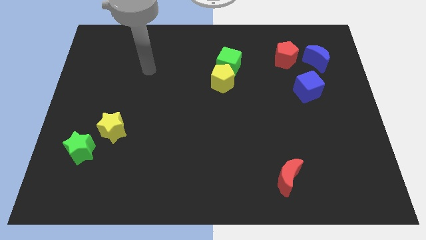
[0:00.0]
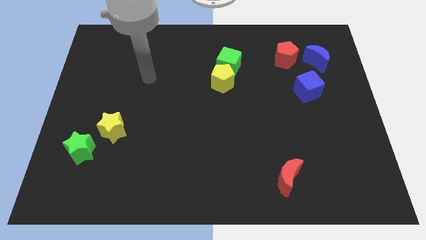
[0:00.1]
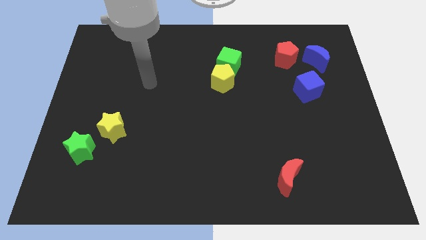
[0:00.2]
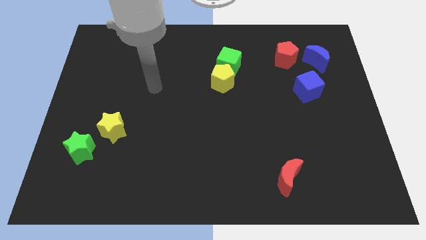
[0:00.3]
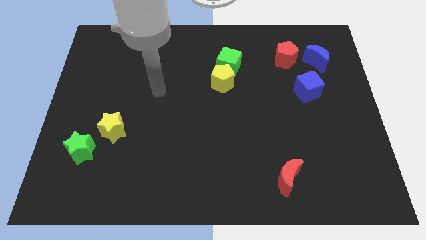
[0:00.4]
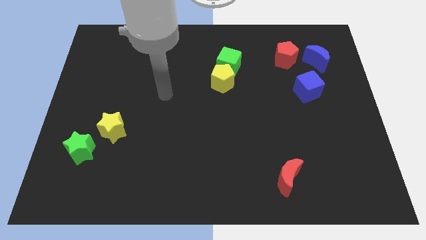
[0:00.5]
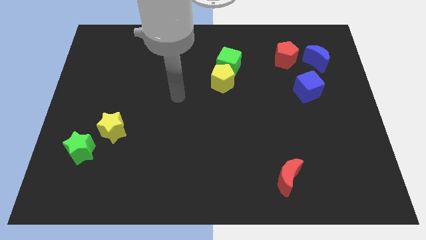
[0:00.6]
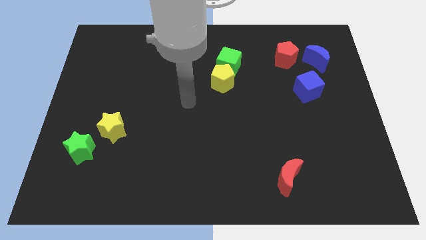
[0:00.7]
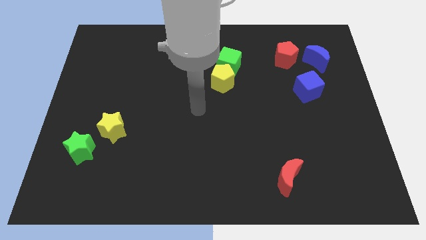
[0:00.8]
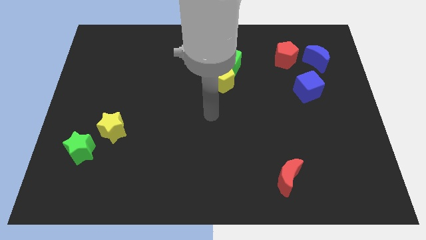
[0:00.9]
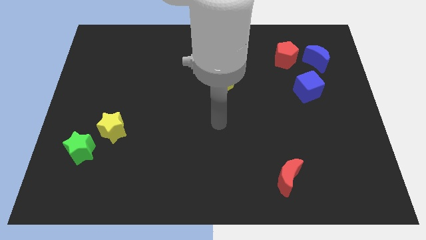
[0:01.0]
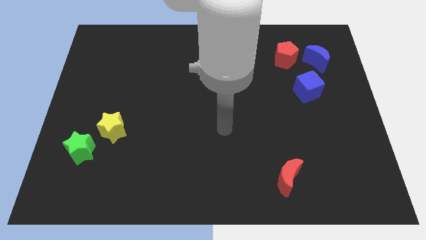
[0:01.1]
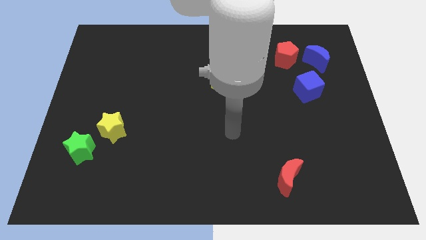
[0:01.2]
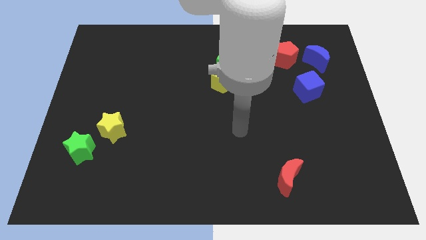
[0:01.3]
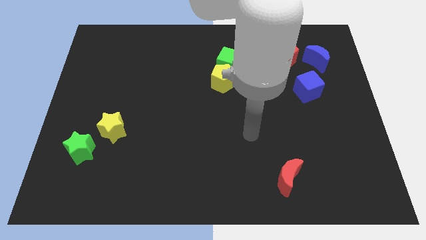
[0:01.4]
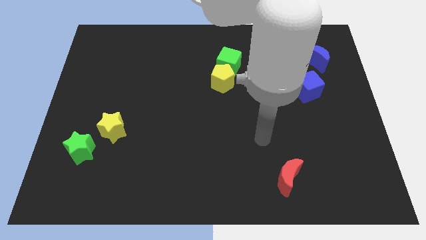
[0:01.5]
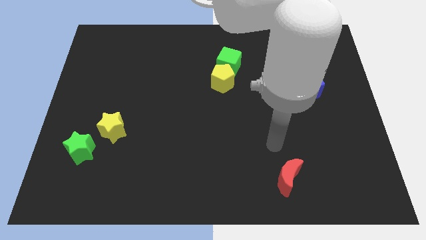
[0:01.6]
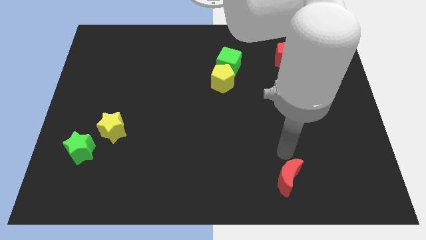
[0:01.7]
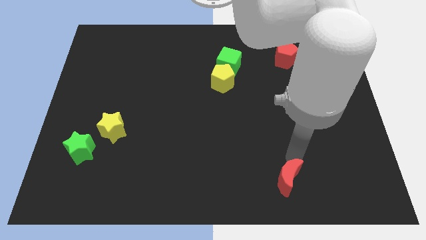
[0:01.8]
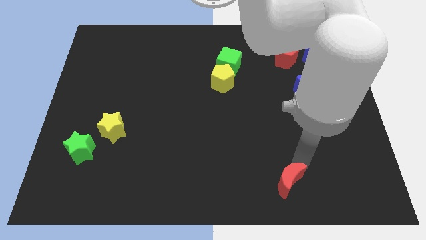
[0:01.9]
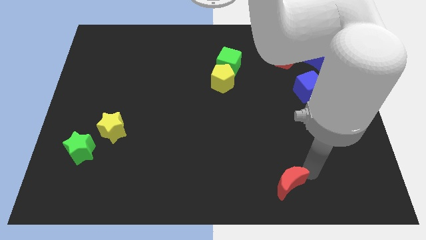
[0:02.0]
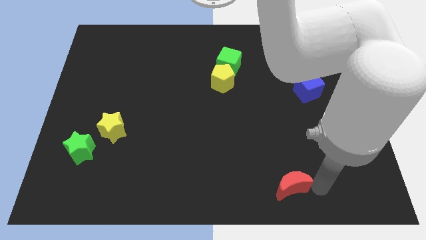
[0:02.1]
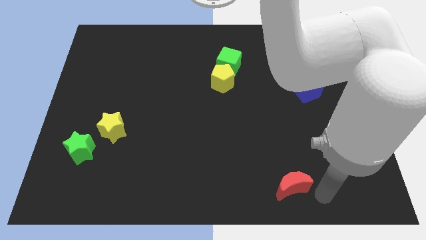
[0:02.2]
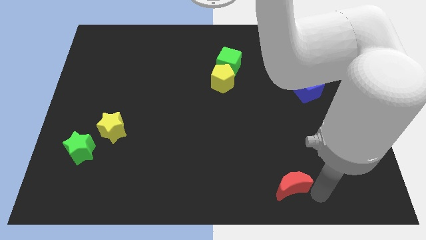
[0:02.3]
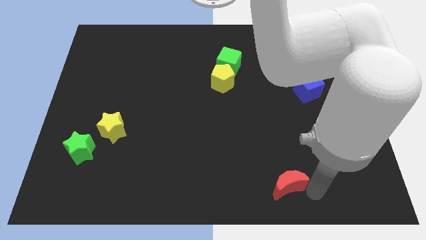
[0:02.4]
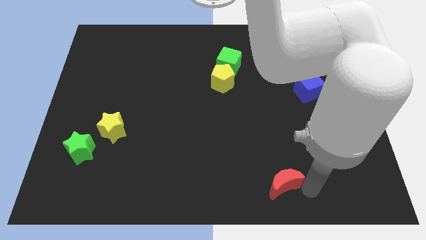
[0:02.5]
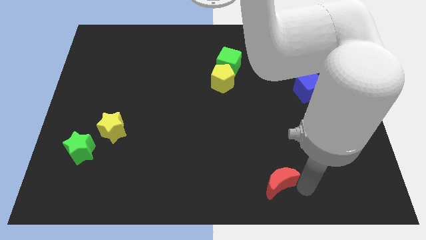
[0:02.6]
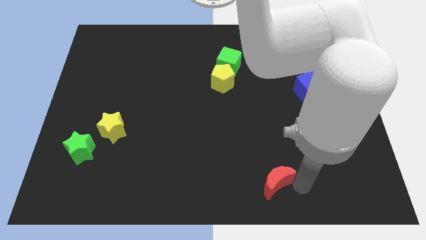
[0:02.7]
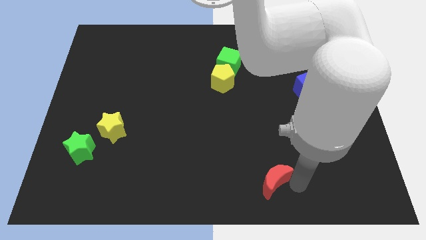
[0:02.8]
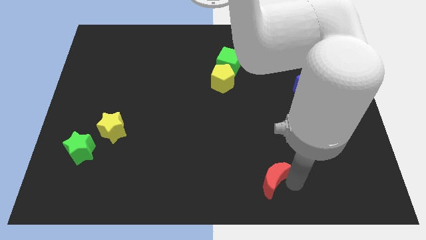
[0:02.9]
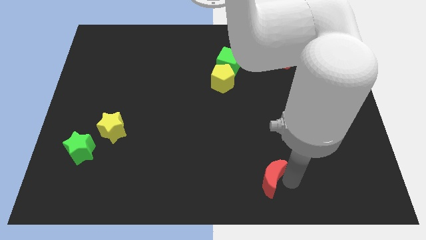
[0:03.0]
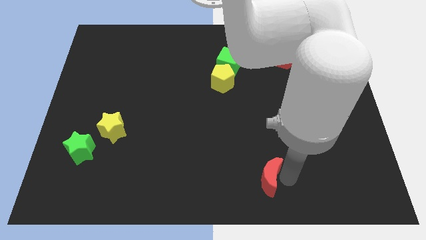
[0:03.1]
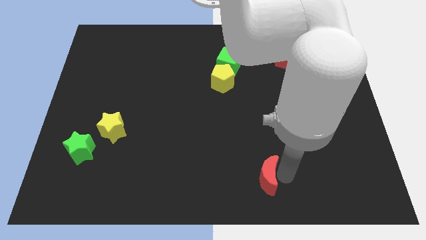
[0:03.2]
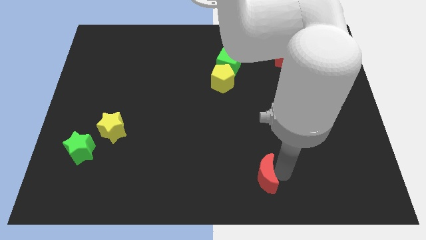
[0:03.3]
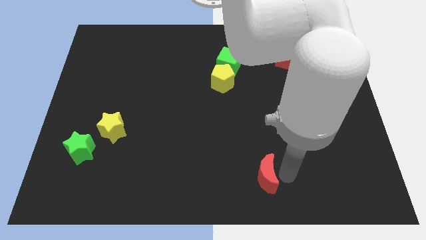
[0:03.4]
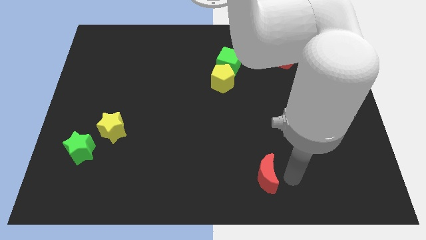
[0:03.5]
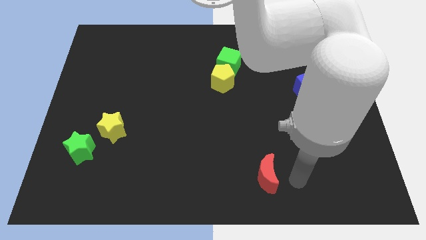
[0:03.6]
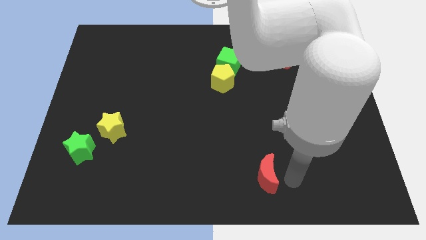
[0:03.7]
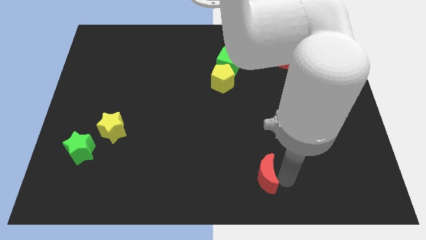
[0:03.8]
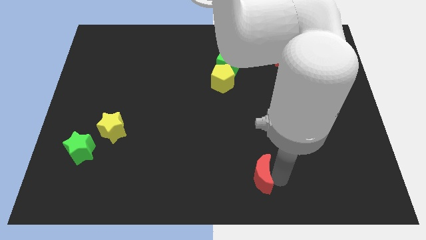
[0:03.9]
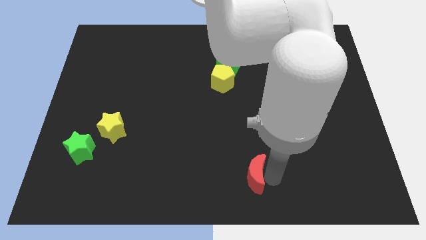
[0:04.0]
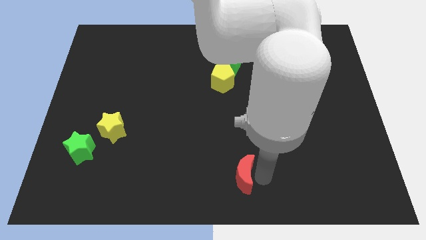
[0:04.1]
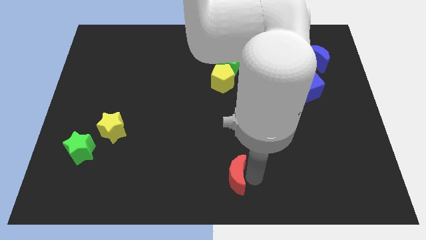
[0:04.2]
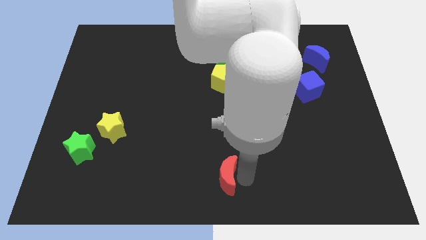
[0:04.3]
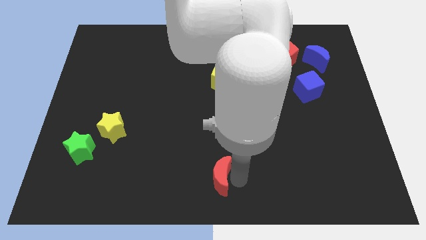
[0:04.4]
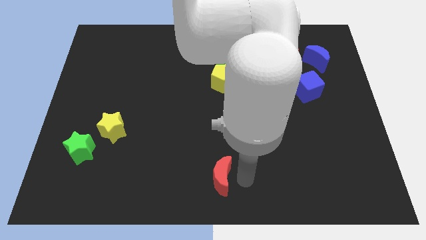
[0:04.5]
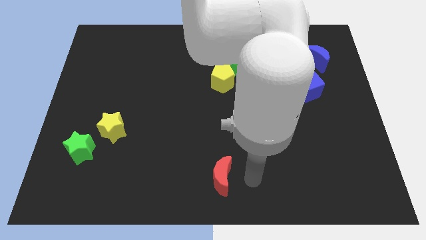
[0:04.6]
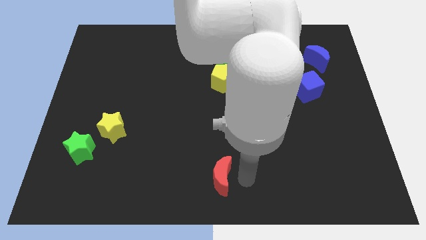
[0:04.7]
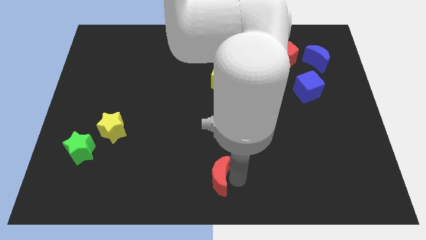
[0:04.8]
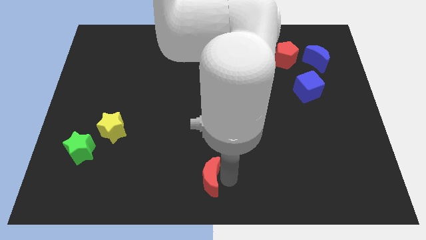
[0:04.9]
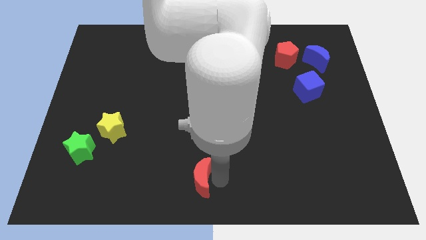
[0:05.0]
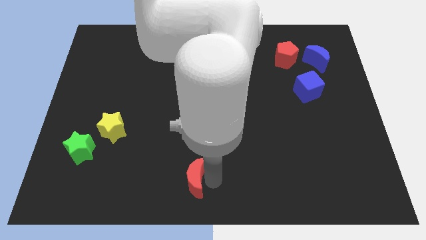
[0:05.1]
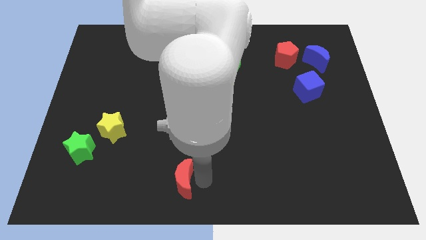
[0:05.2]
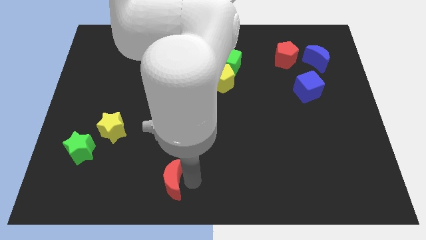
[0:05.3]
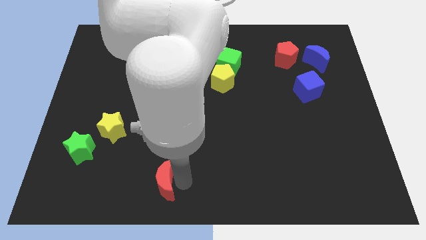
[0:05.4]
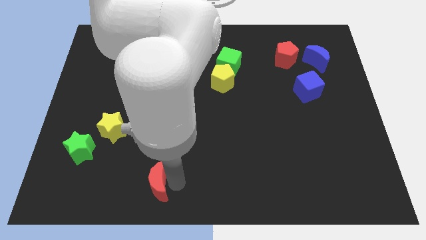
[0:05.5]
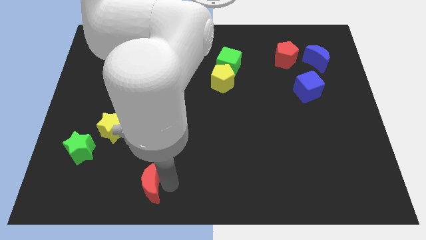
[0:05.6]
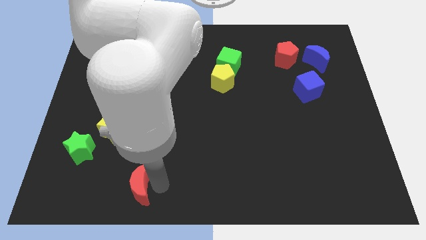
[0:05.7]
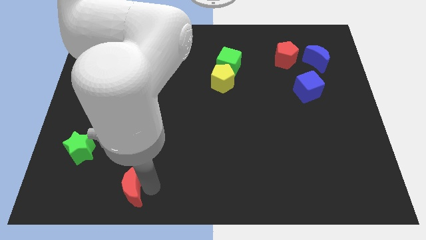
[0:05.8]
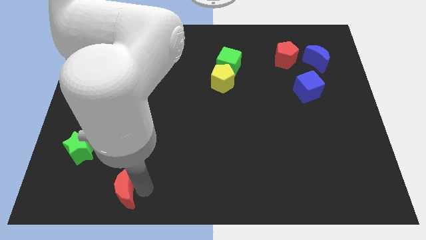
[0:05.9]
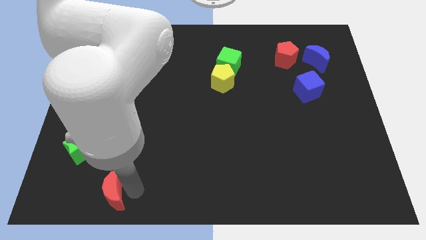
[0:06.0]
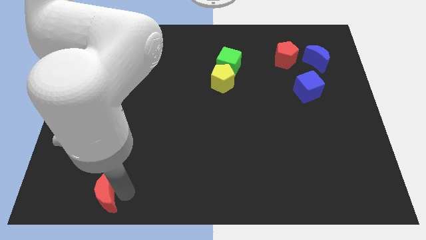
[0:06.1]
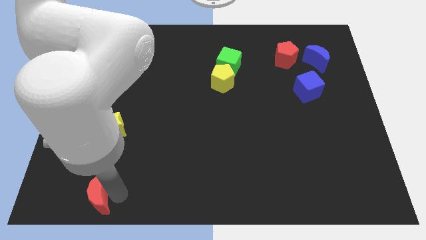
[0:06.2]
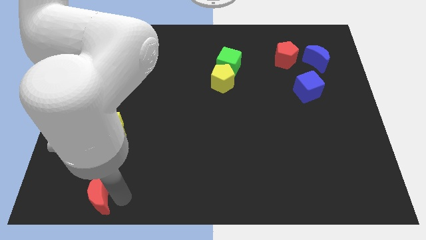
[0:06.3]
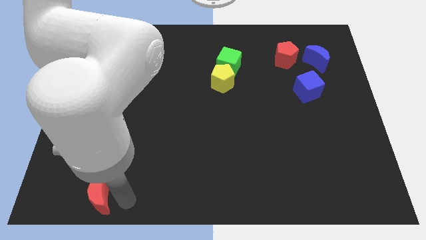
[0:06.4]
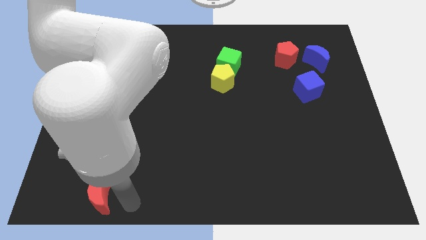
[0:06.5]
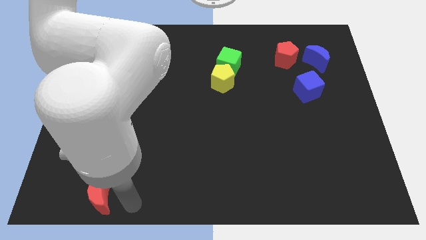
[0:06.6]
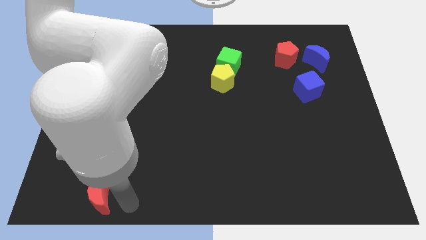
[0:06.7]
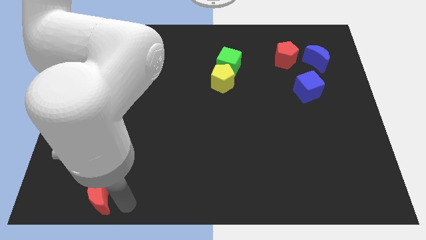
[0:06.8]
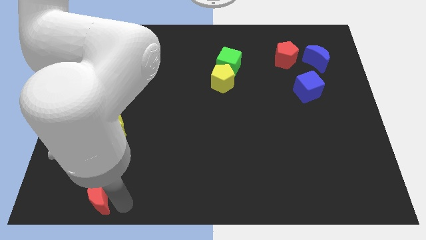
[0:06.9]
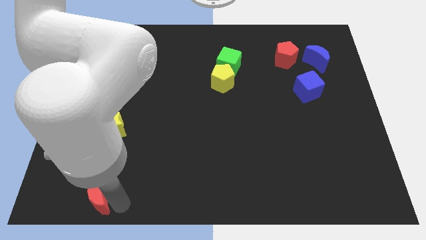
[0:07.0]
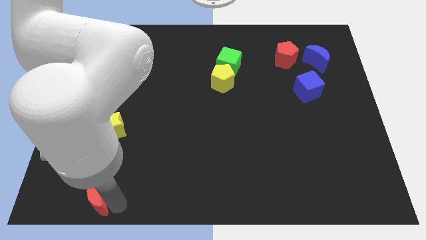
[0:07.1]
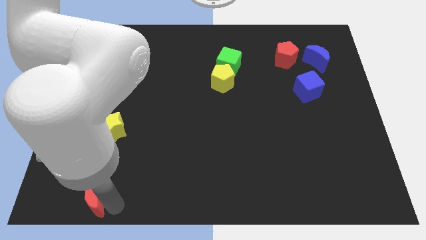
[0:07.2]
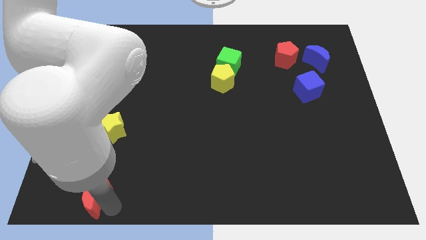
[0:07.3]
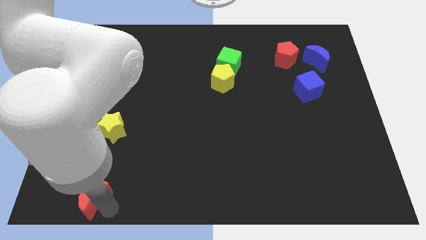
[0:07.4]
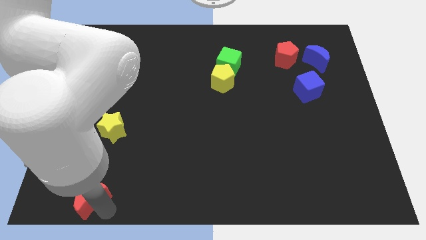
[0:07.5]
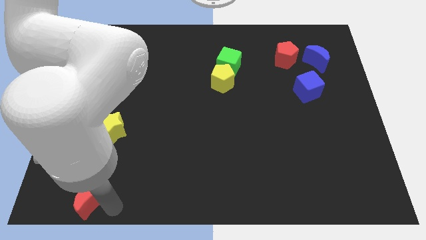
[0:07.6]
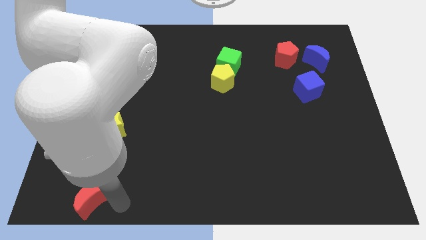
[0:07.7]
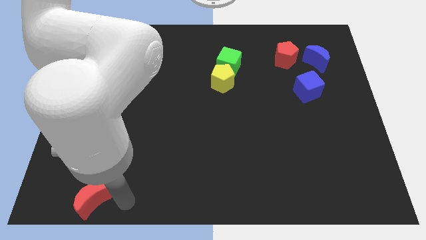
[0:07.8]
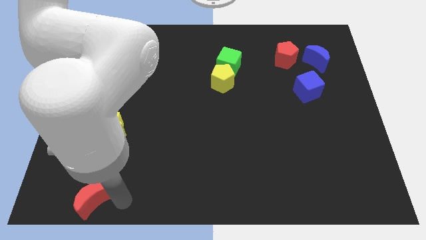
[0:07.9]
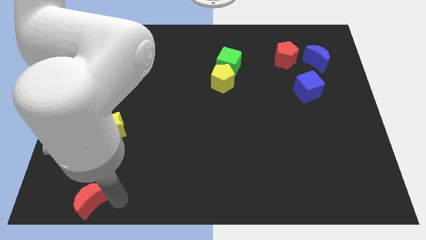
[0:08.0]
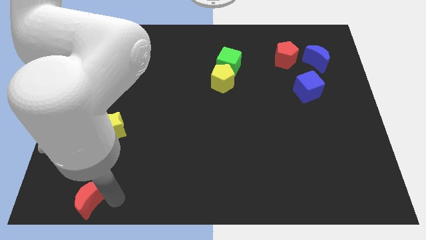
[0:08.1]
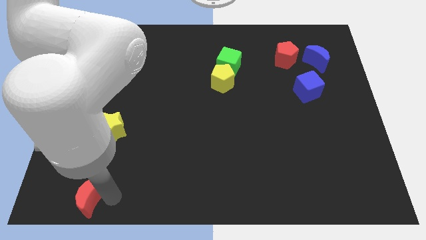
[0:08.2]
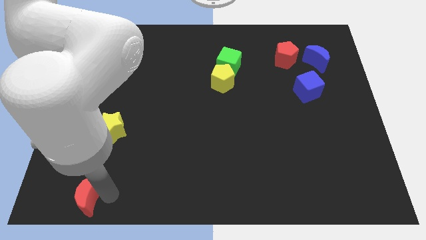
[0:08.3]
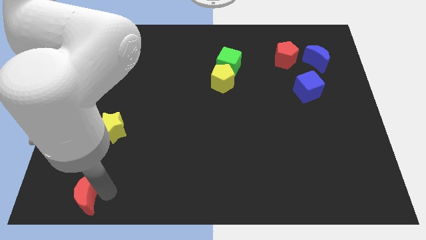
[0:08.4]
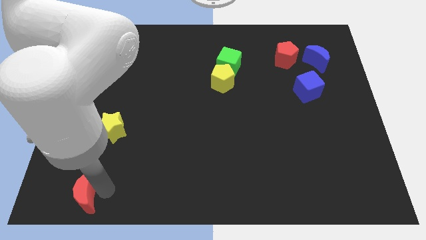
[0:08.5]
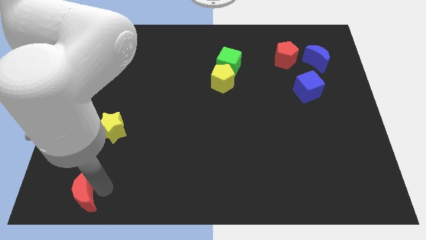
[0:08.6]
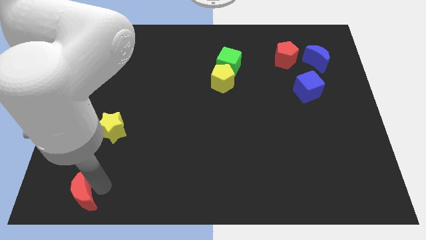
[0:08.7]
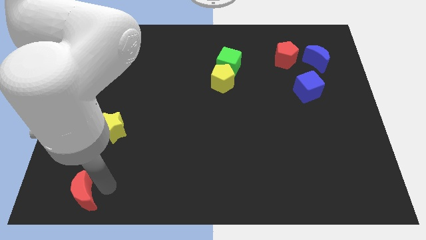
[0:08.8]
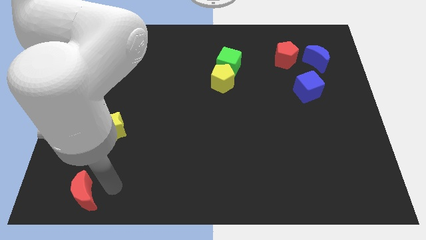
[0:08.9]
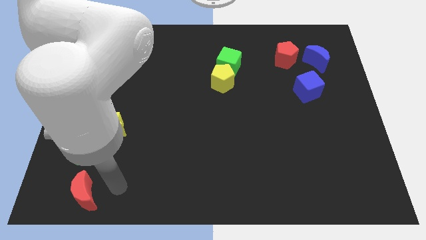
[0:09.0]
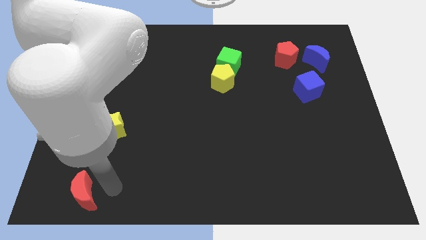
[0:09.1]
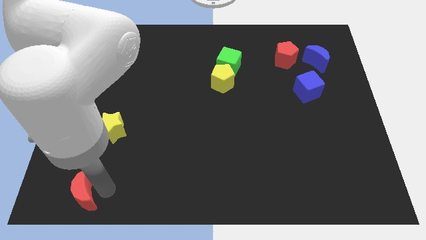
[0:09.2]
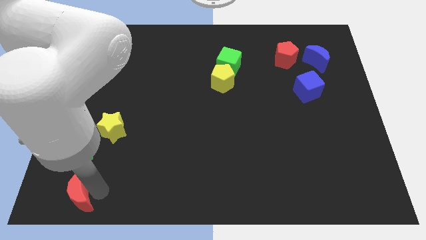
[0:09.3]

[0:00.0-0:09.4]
push the red moon to the bottom left
